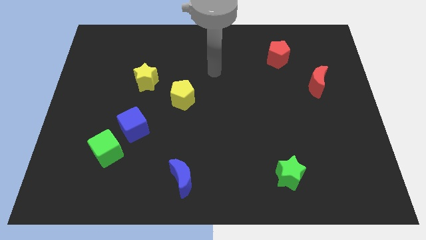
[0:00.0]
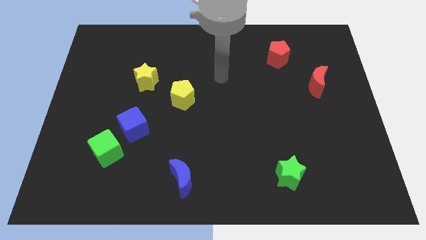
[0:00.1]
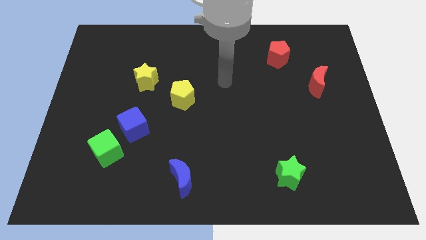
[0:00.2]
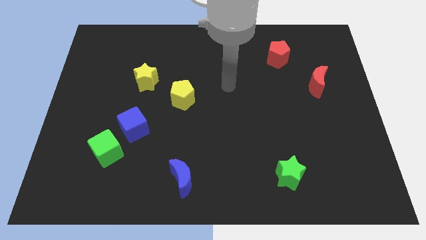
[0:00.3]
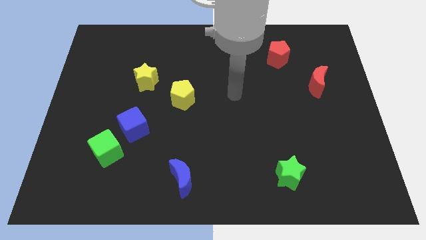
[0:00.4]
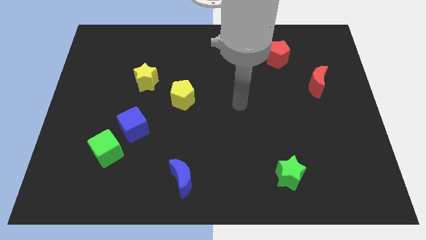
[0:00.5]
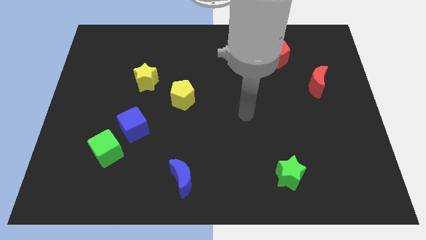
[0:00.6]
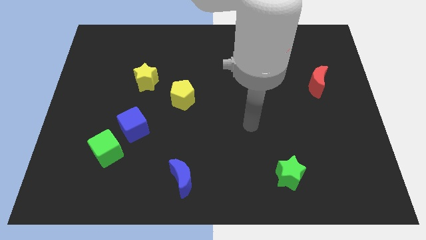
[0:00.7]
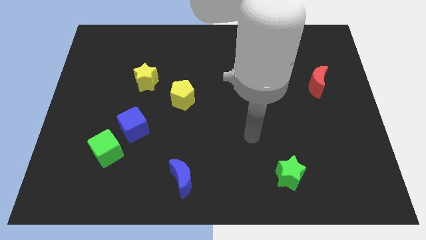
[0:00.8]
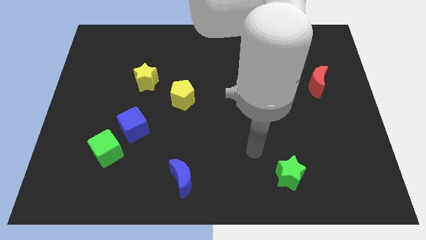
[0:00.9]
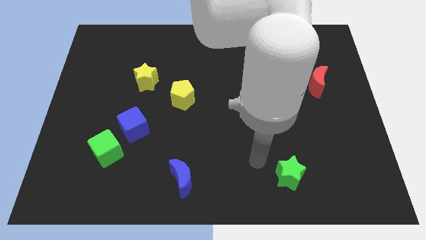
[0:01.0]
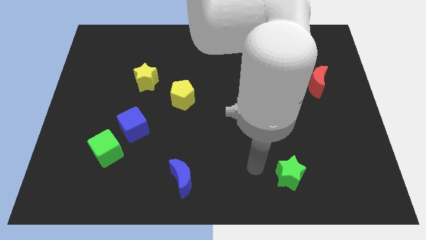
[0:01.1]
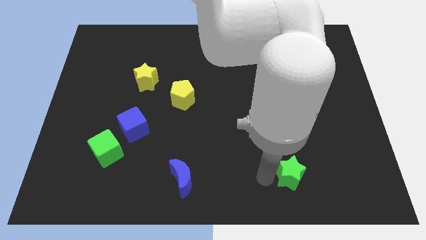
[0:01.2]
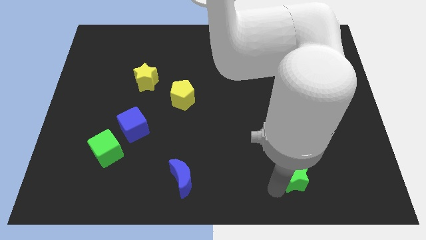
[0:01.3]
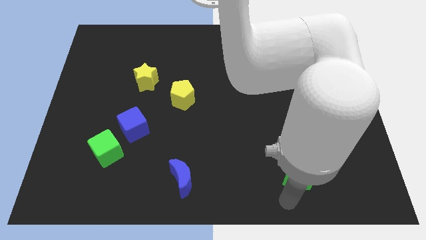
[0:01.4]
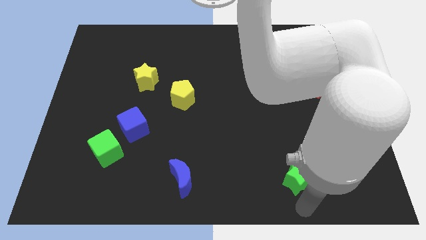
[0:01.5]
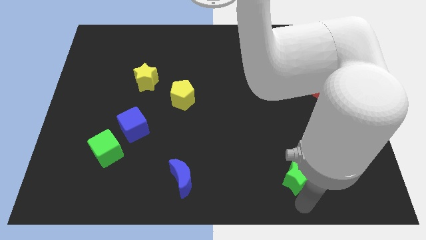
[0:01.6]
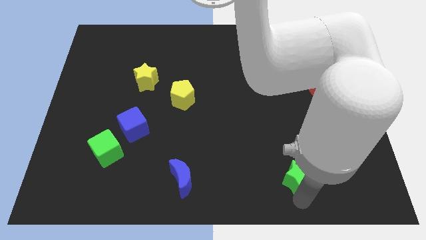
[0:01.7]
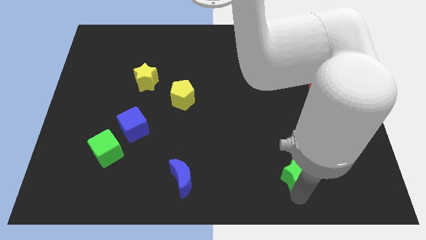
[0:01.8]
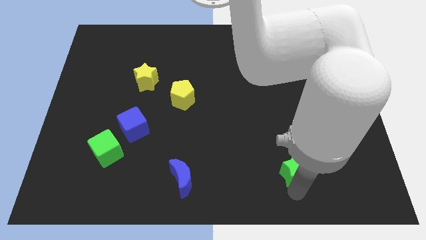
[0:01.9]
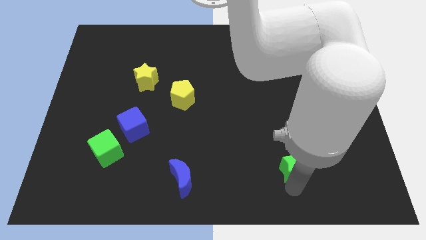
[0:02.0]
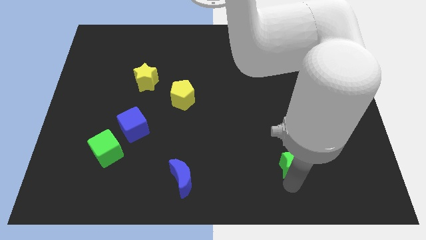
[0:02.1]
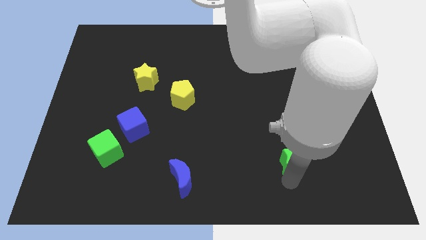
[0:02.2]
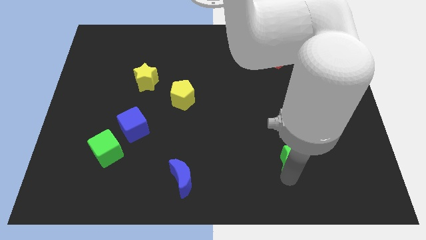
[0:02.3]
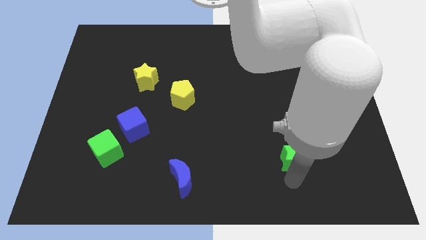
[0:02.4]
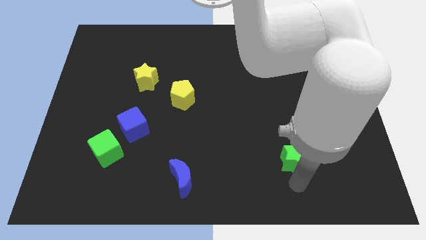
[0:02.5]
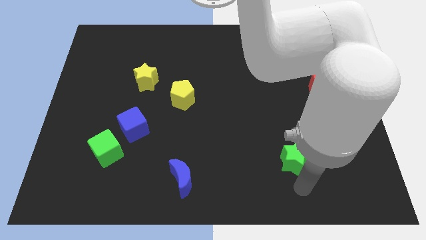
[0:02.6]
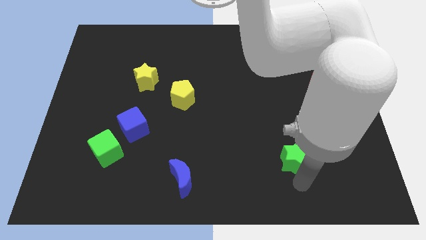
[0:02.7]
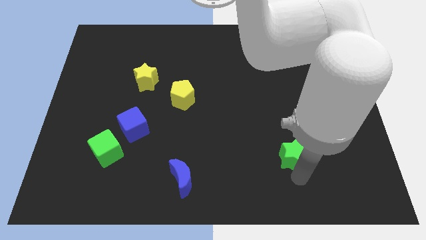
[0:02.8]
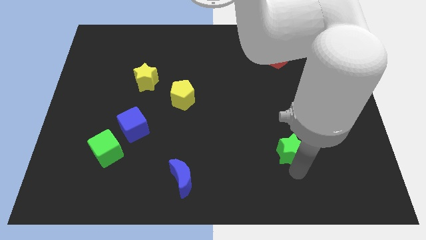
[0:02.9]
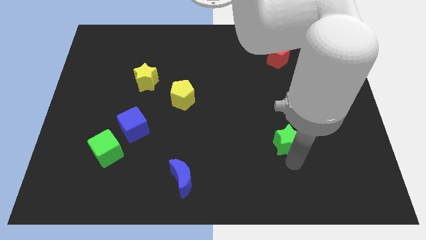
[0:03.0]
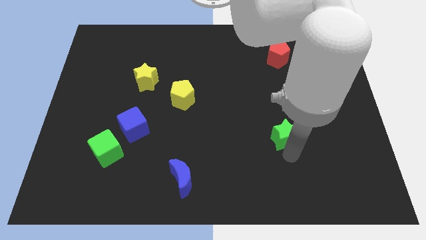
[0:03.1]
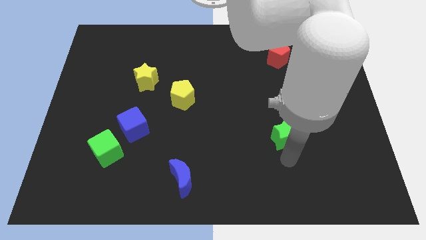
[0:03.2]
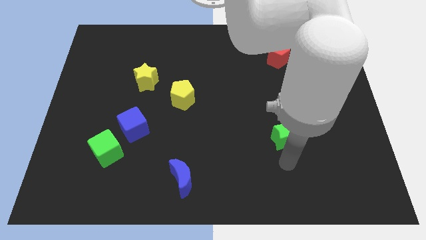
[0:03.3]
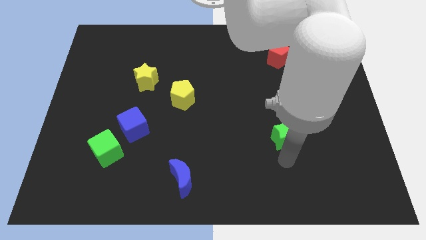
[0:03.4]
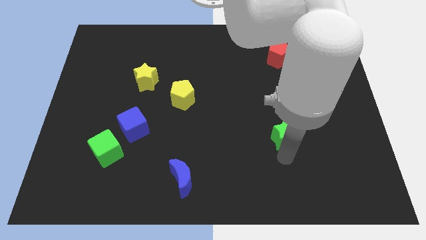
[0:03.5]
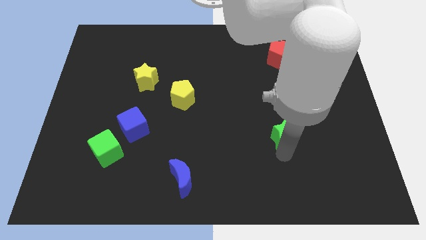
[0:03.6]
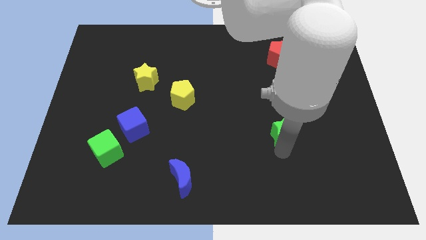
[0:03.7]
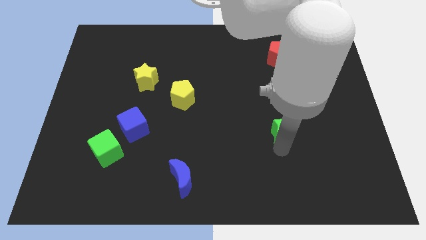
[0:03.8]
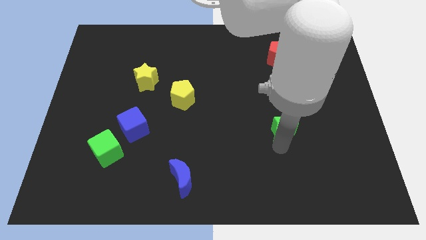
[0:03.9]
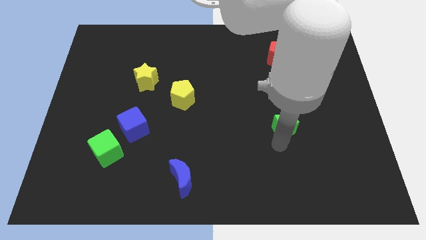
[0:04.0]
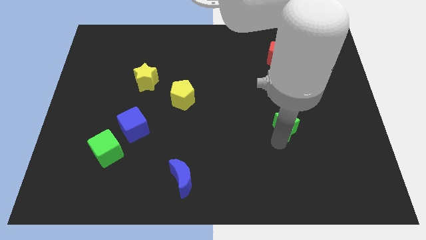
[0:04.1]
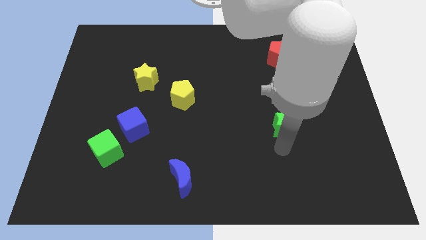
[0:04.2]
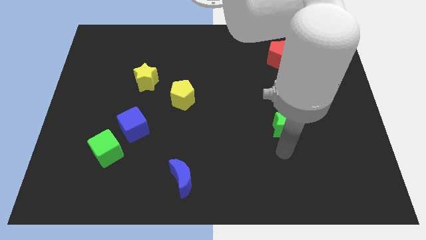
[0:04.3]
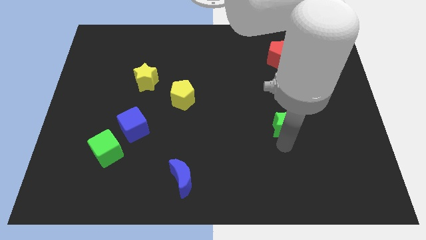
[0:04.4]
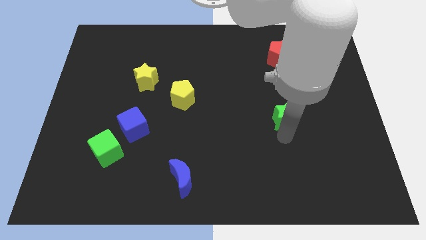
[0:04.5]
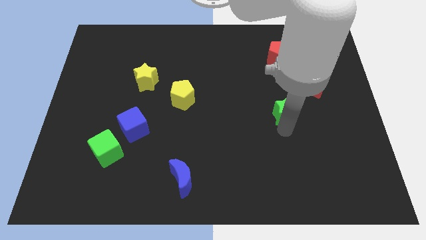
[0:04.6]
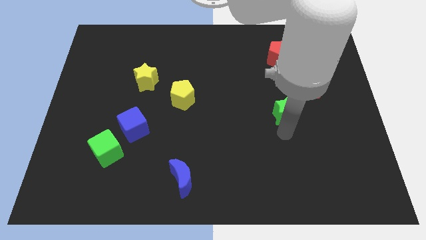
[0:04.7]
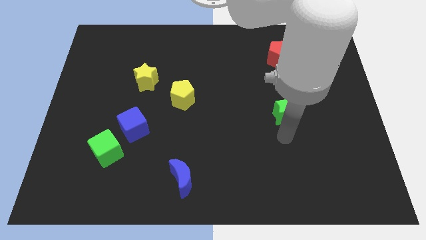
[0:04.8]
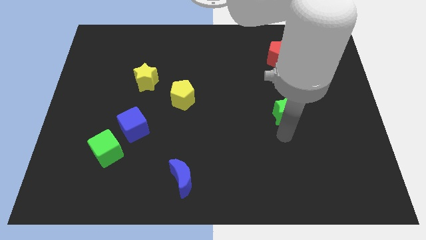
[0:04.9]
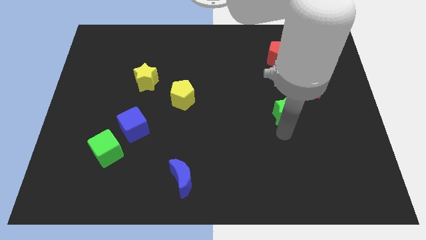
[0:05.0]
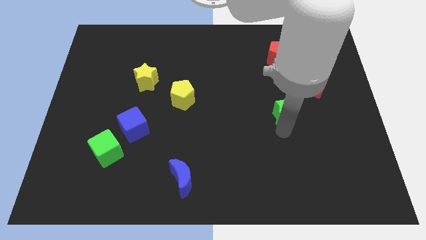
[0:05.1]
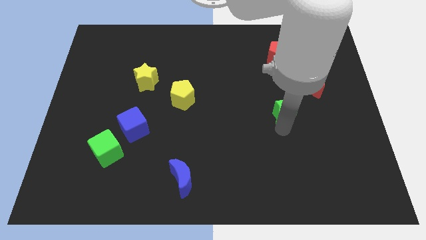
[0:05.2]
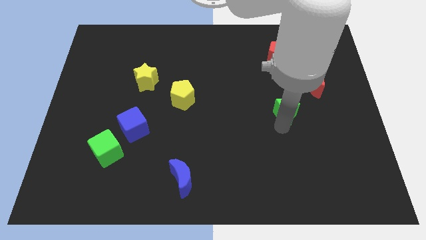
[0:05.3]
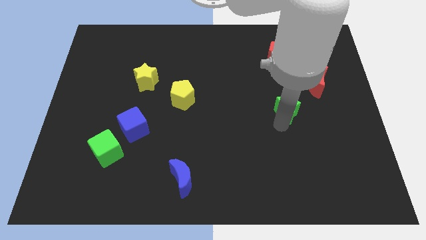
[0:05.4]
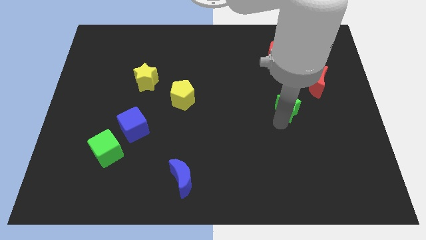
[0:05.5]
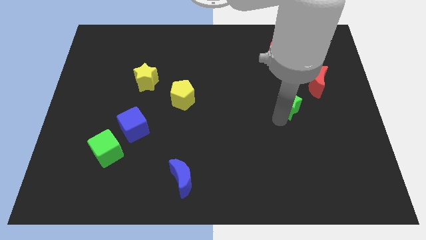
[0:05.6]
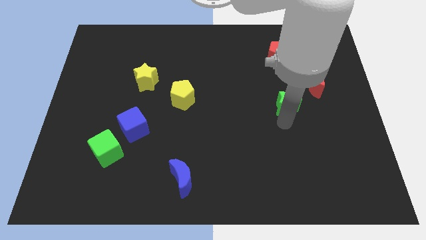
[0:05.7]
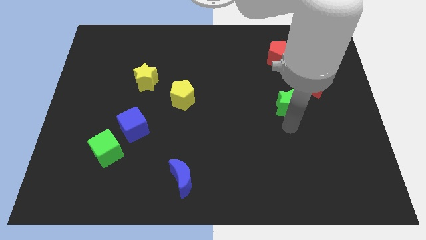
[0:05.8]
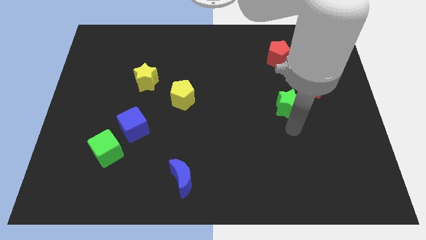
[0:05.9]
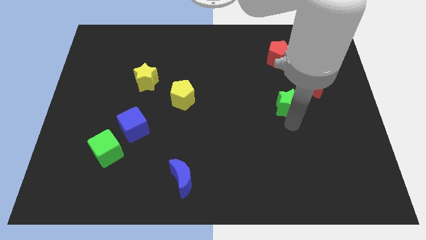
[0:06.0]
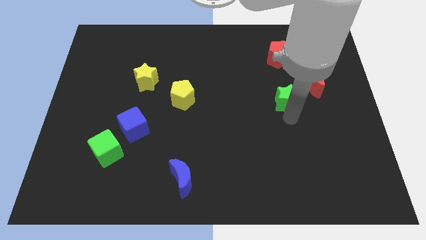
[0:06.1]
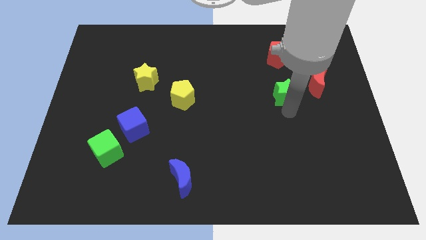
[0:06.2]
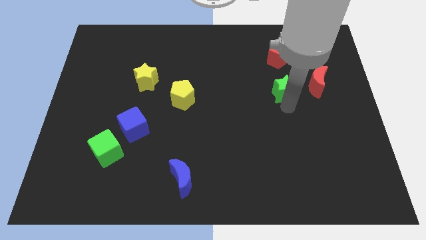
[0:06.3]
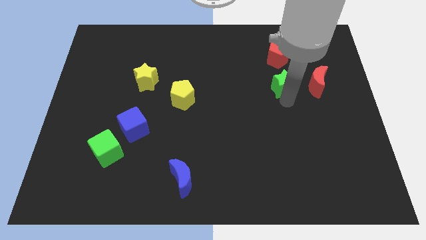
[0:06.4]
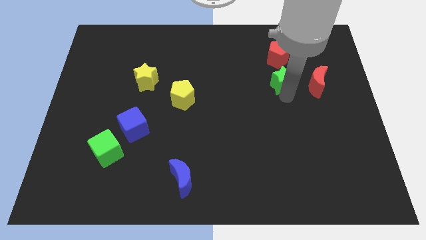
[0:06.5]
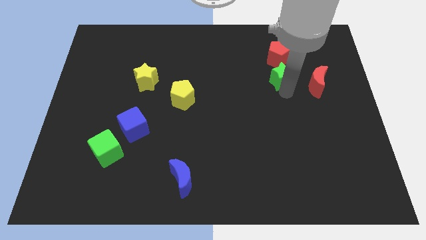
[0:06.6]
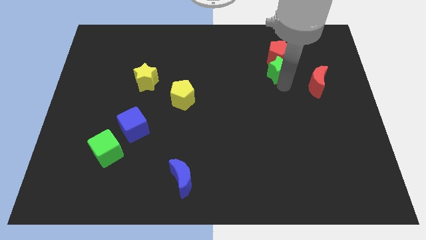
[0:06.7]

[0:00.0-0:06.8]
put the green star to the red pentagon
